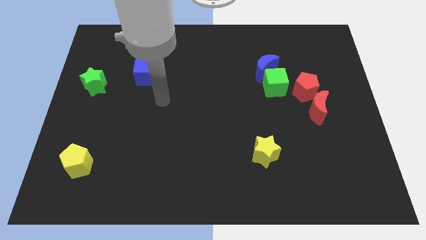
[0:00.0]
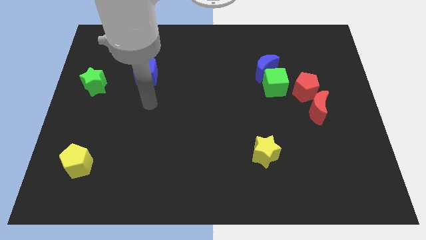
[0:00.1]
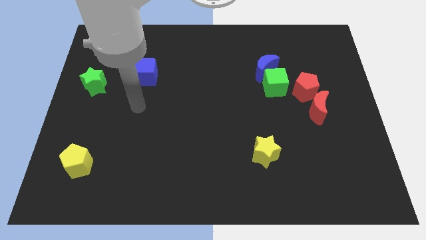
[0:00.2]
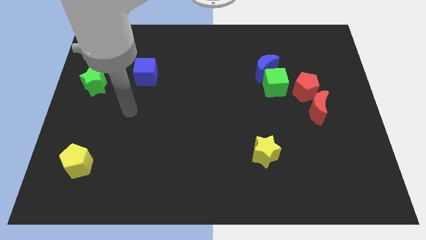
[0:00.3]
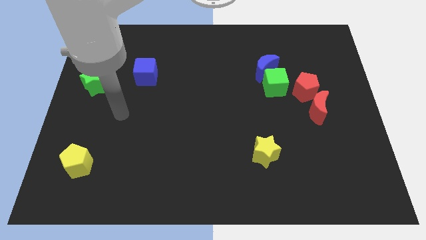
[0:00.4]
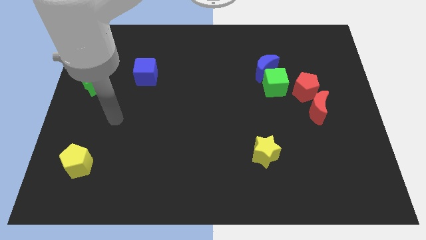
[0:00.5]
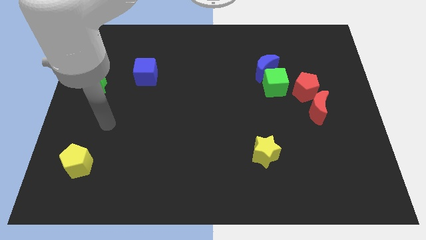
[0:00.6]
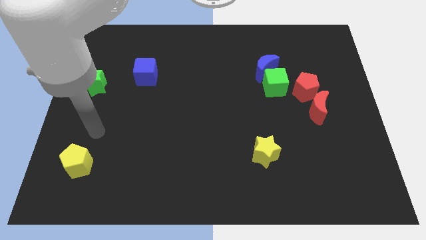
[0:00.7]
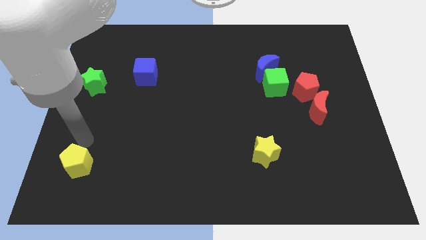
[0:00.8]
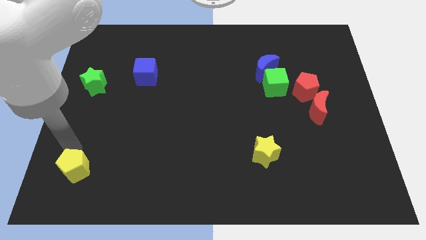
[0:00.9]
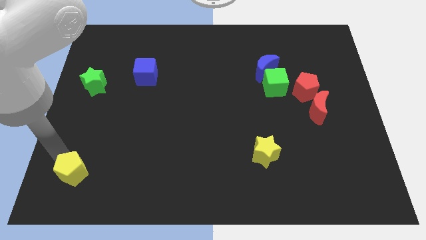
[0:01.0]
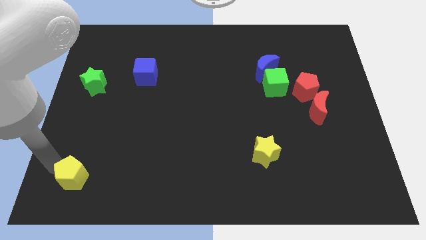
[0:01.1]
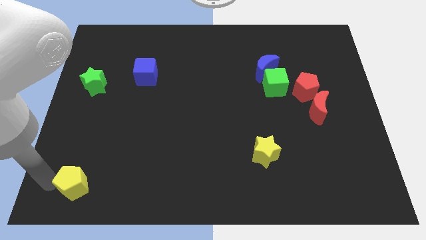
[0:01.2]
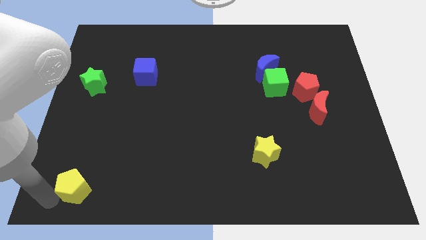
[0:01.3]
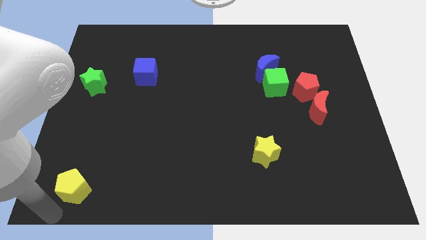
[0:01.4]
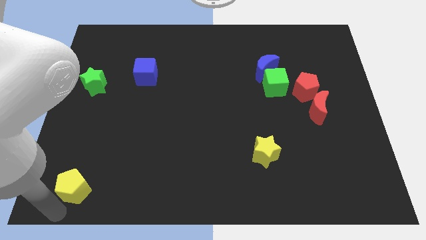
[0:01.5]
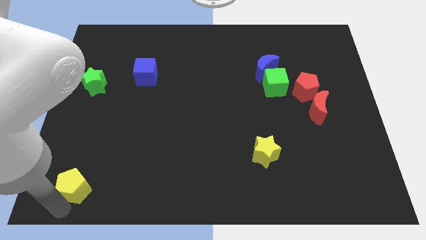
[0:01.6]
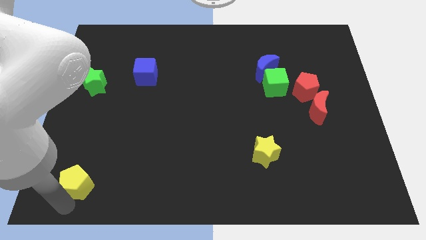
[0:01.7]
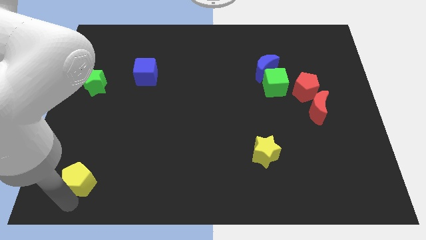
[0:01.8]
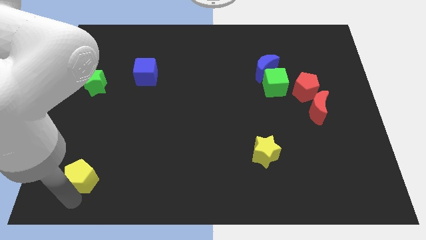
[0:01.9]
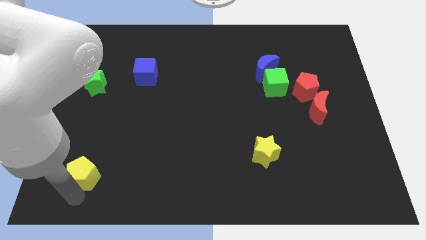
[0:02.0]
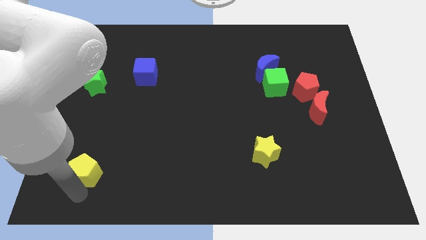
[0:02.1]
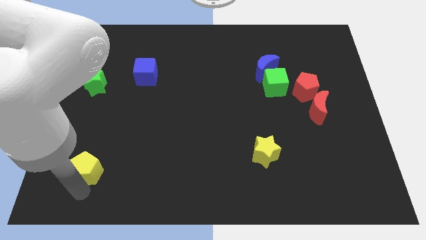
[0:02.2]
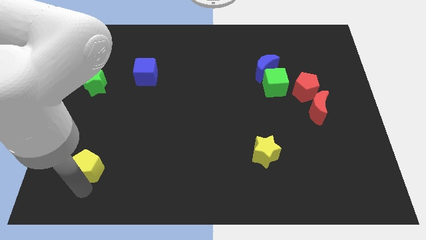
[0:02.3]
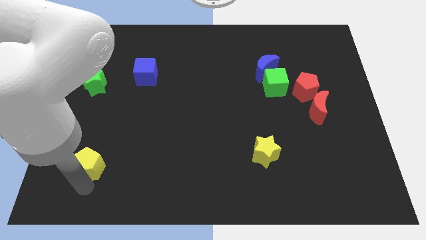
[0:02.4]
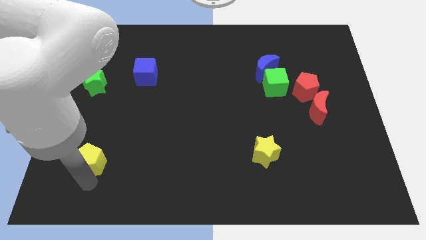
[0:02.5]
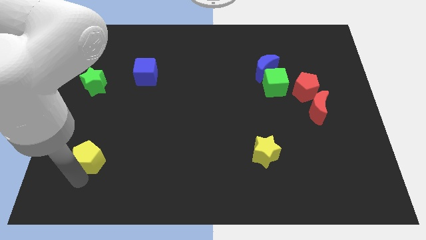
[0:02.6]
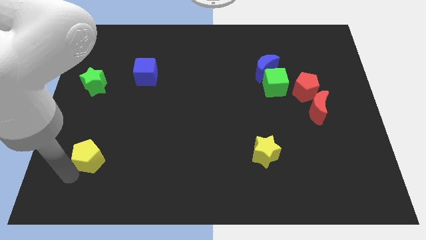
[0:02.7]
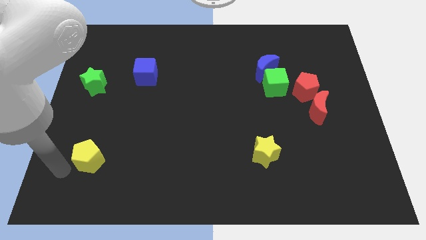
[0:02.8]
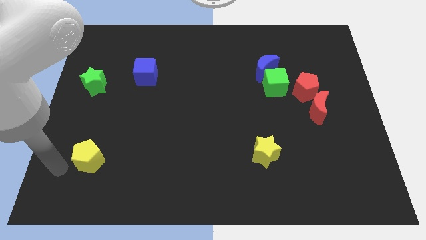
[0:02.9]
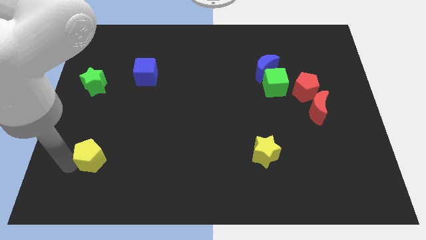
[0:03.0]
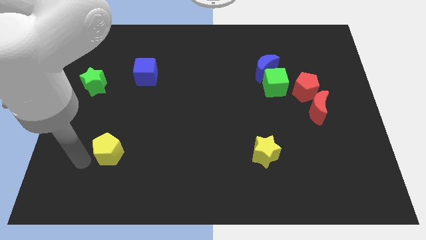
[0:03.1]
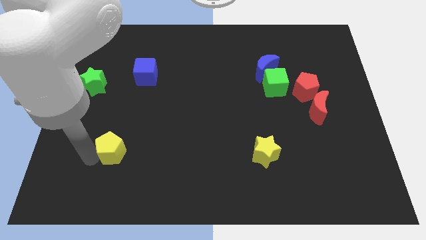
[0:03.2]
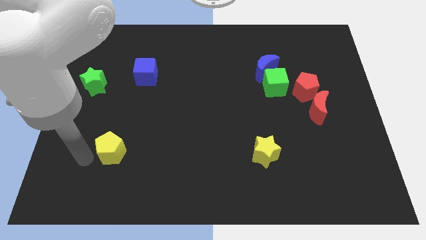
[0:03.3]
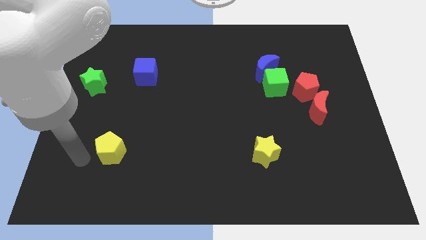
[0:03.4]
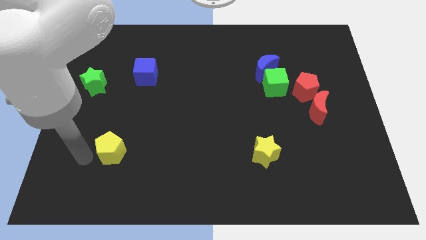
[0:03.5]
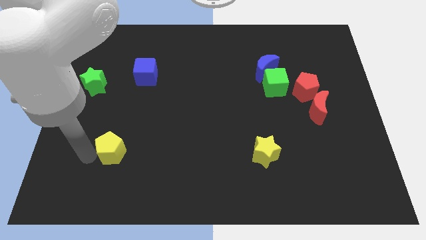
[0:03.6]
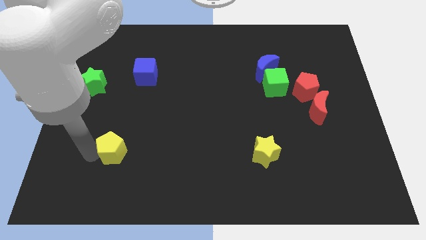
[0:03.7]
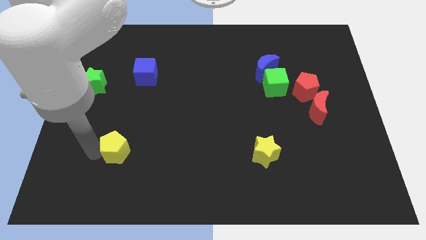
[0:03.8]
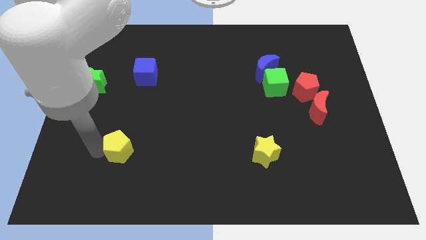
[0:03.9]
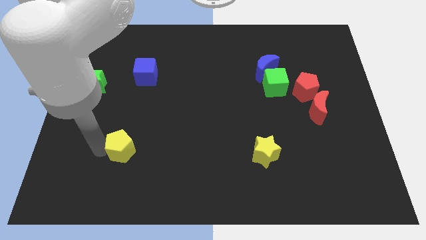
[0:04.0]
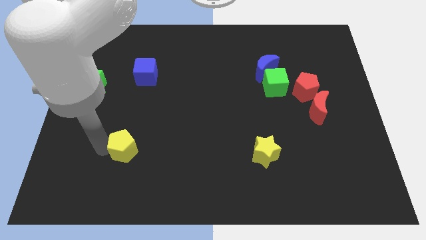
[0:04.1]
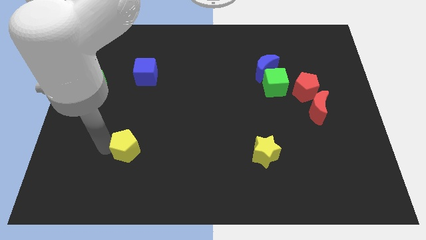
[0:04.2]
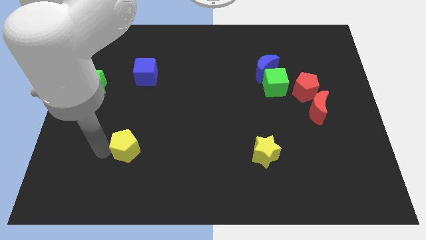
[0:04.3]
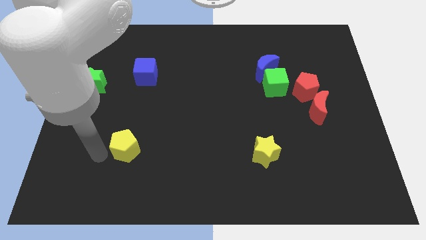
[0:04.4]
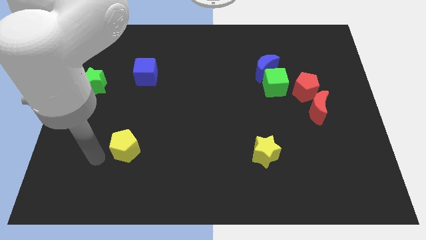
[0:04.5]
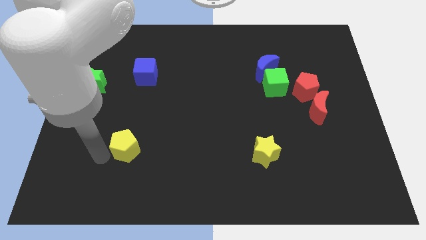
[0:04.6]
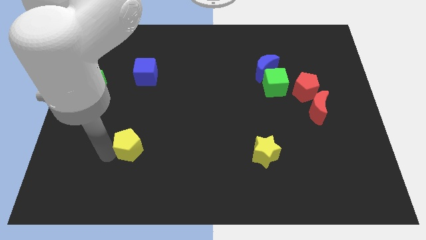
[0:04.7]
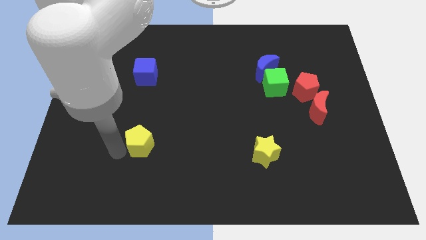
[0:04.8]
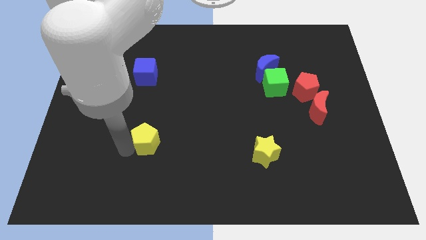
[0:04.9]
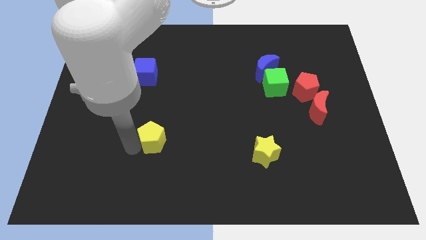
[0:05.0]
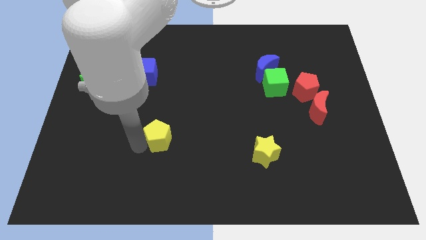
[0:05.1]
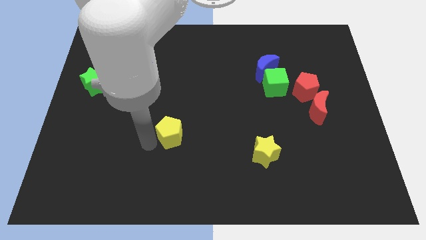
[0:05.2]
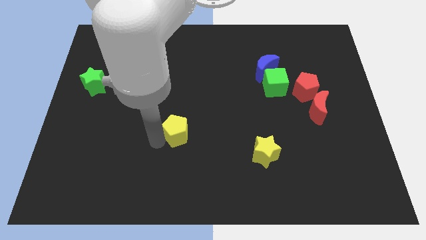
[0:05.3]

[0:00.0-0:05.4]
slide the yellow pentagon to the center of the board

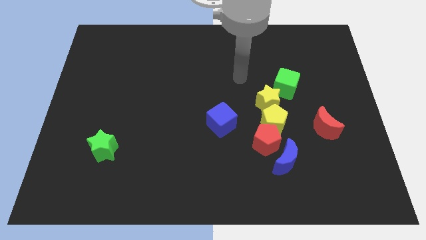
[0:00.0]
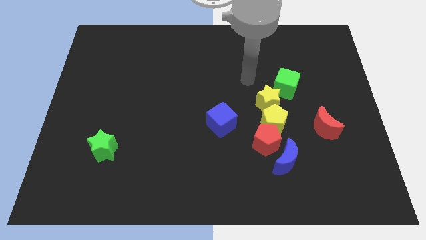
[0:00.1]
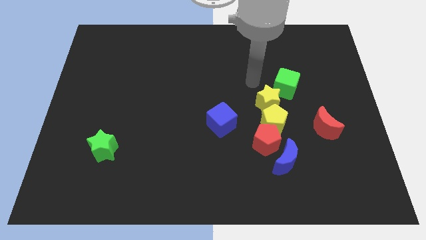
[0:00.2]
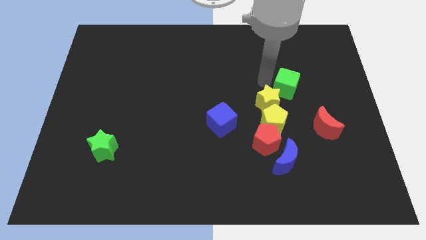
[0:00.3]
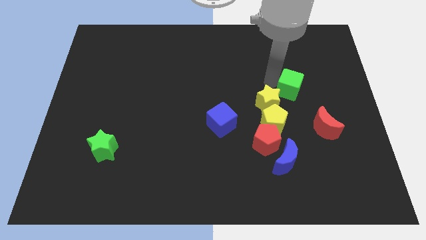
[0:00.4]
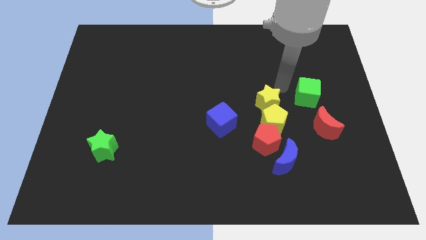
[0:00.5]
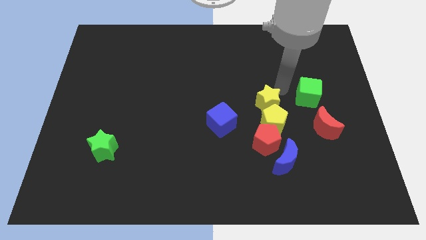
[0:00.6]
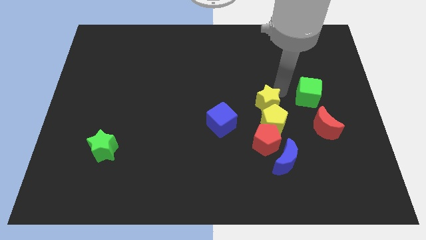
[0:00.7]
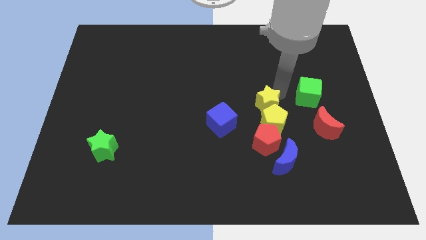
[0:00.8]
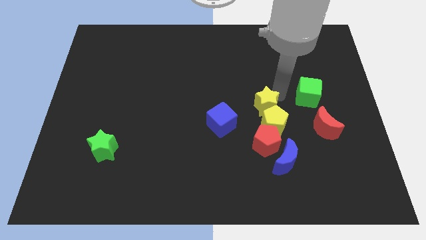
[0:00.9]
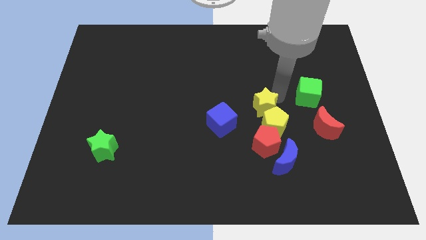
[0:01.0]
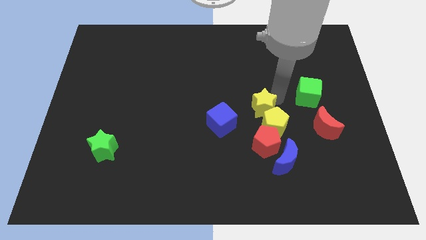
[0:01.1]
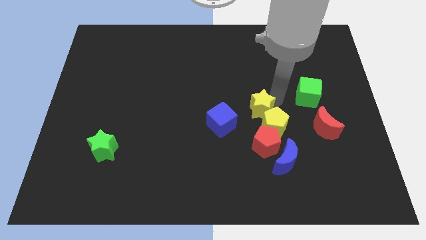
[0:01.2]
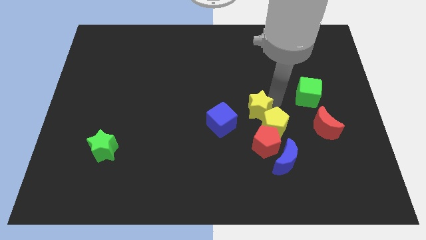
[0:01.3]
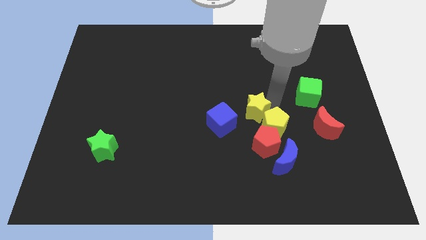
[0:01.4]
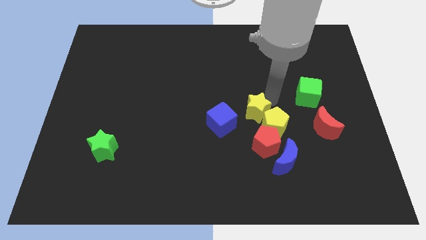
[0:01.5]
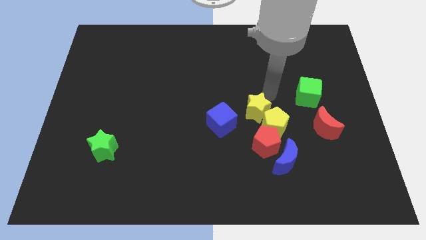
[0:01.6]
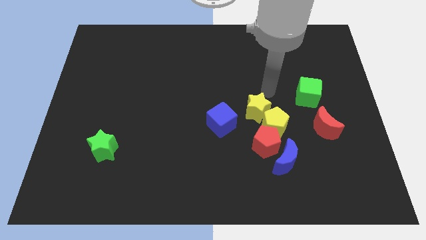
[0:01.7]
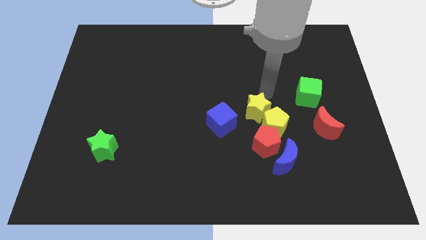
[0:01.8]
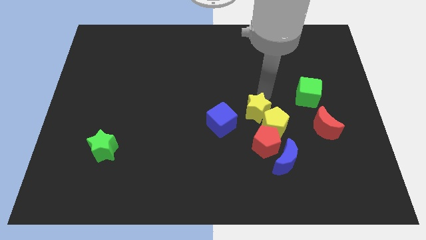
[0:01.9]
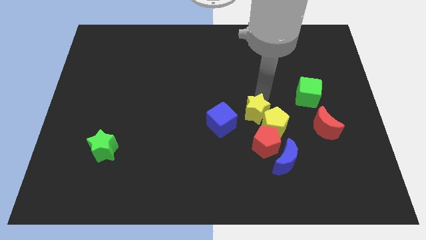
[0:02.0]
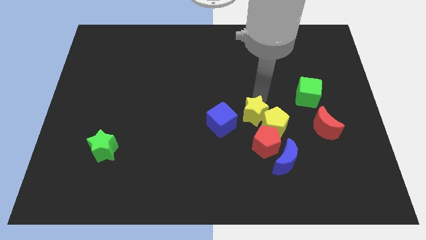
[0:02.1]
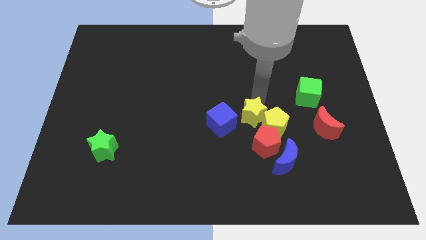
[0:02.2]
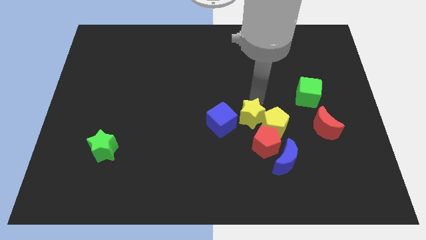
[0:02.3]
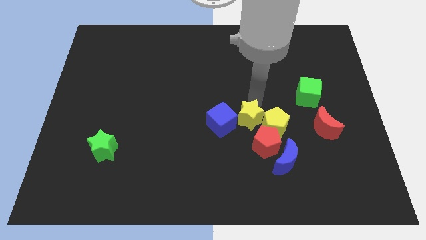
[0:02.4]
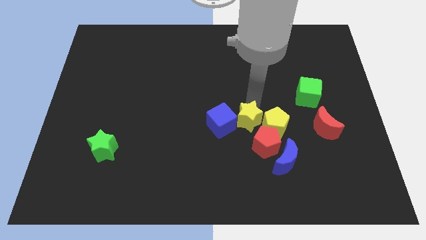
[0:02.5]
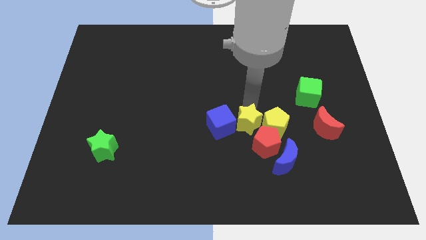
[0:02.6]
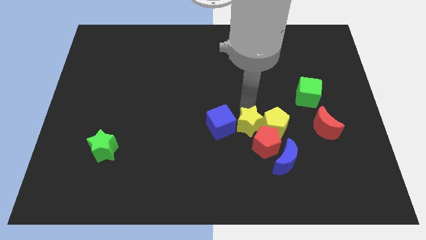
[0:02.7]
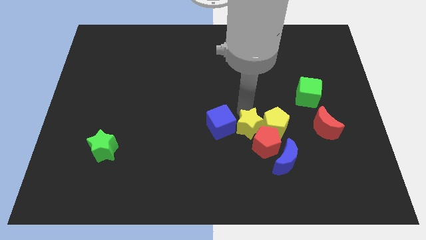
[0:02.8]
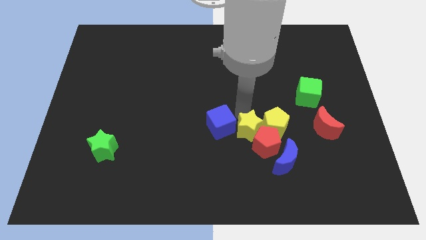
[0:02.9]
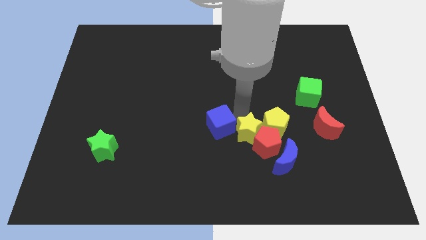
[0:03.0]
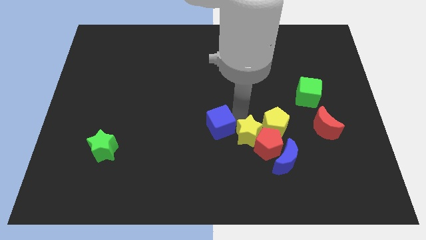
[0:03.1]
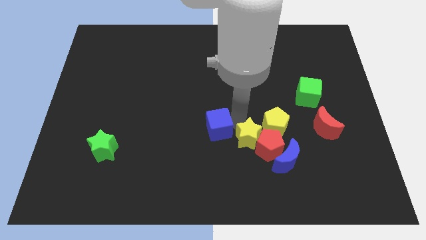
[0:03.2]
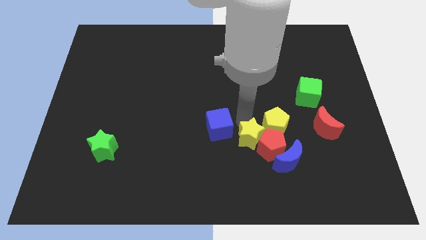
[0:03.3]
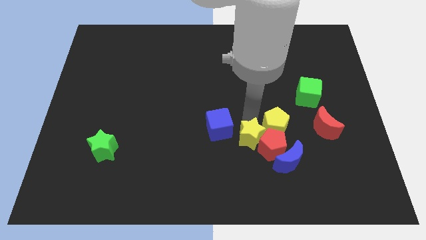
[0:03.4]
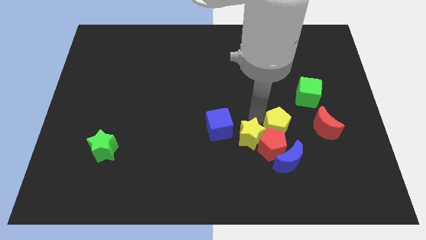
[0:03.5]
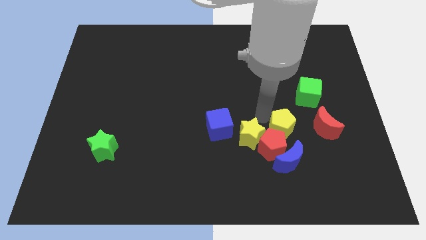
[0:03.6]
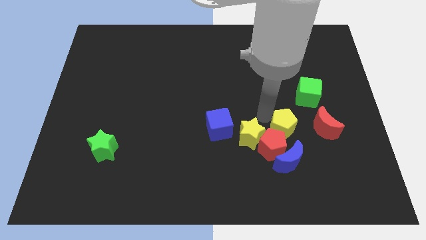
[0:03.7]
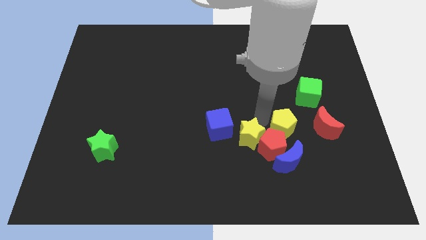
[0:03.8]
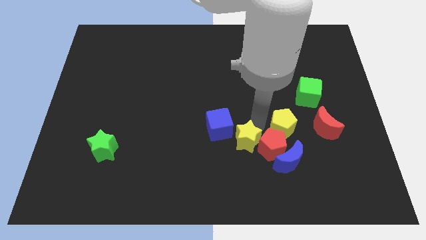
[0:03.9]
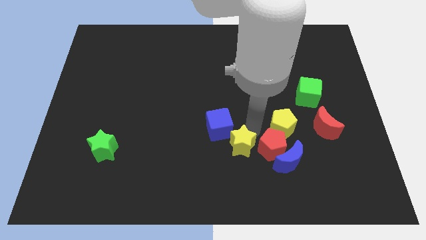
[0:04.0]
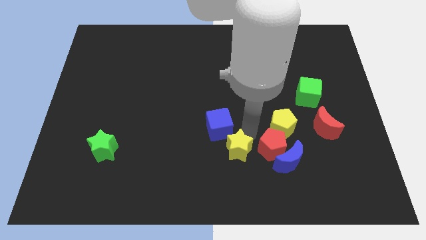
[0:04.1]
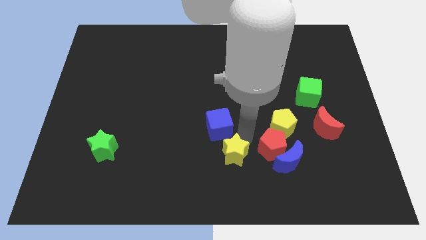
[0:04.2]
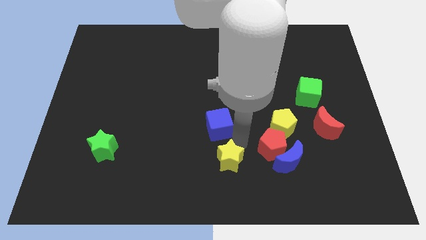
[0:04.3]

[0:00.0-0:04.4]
push the yellow star to the bottom side
